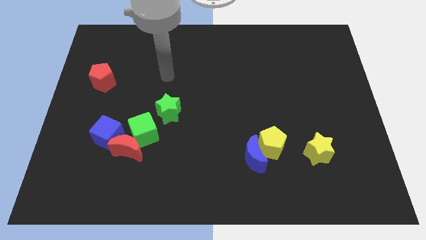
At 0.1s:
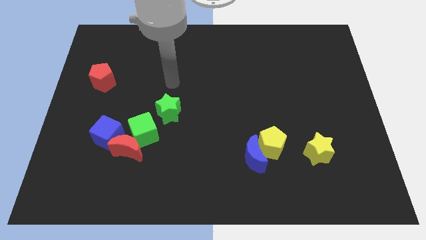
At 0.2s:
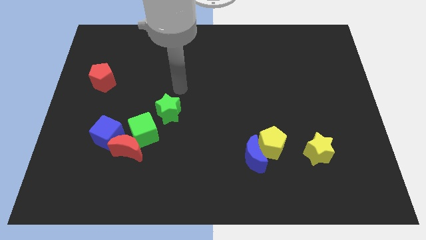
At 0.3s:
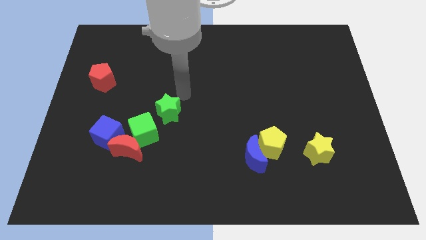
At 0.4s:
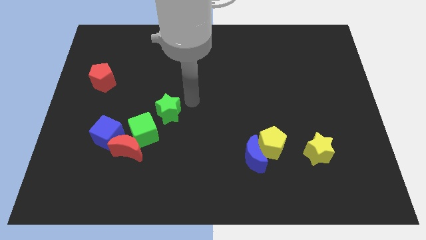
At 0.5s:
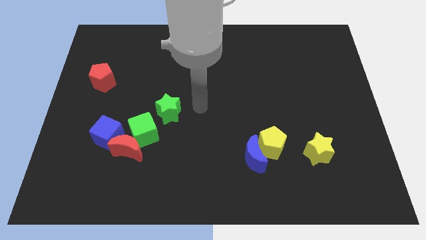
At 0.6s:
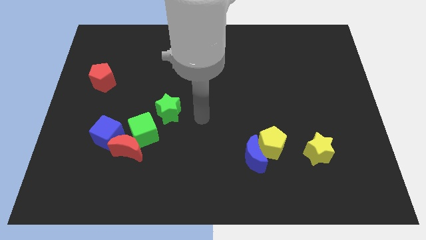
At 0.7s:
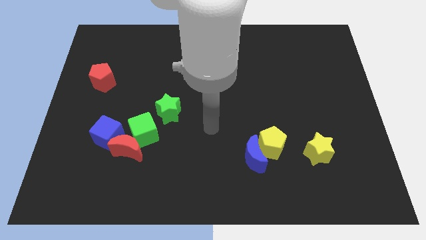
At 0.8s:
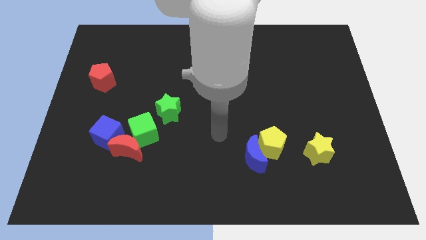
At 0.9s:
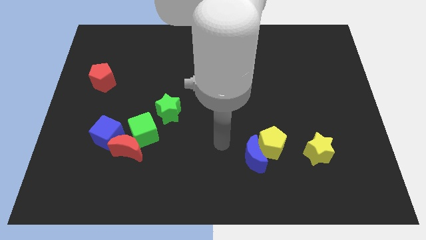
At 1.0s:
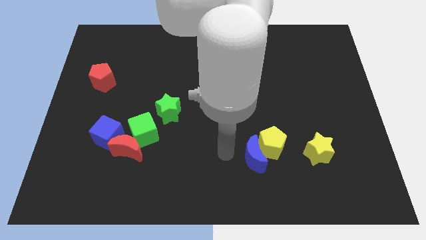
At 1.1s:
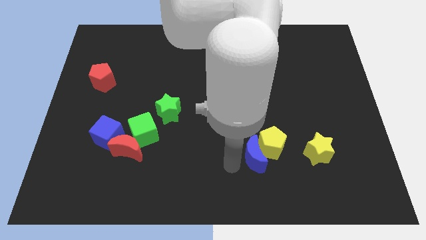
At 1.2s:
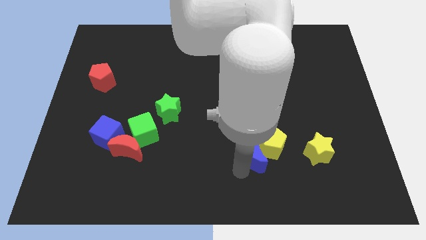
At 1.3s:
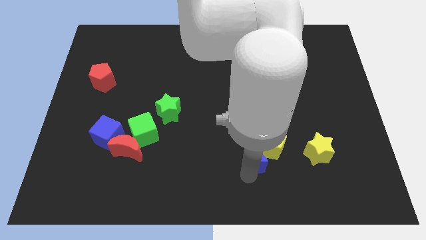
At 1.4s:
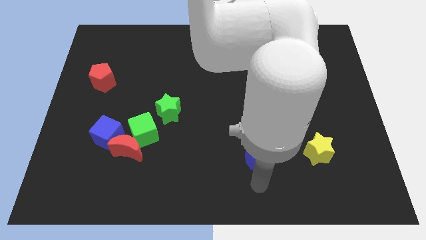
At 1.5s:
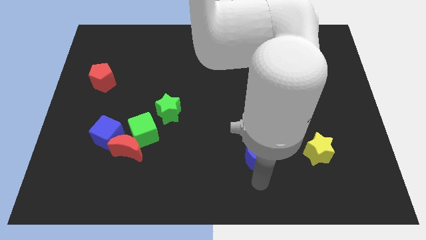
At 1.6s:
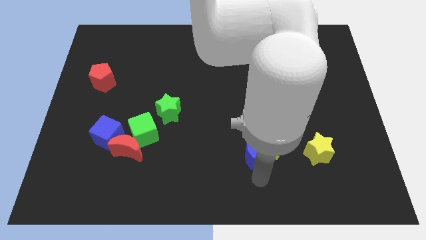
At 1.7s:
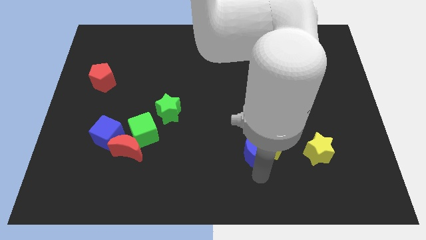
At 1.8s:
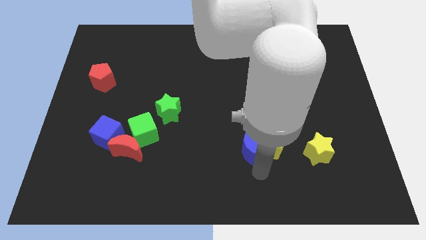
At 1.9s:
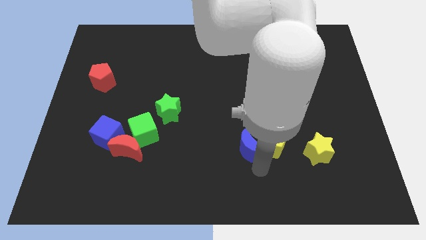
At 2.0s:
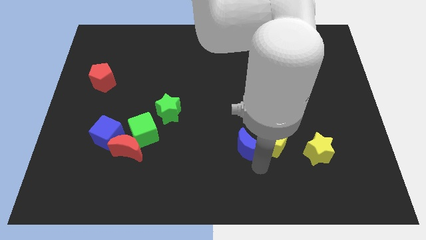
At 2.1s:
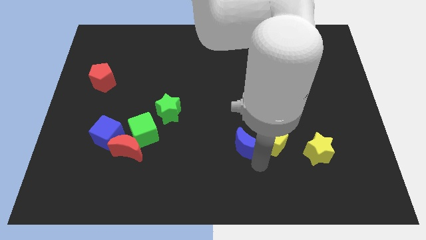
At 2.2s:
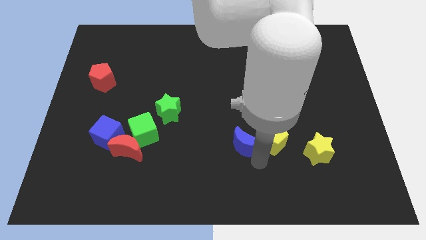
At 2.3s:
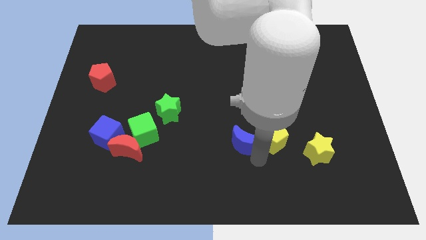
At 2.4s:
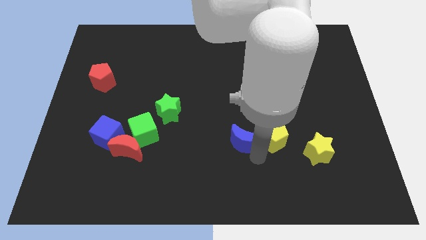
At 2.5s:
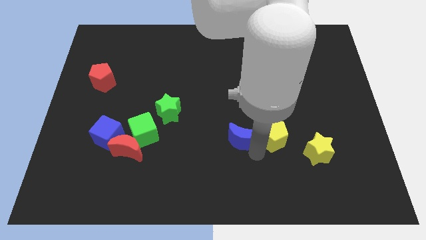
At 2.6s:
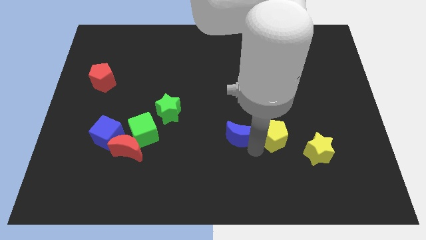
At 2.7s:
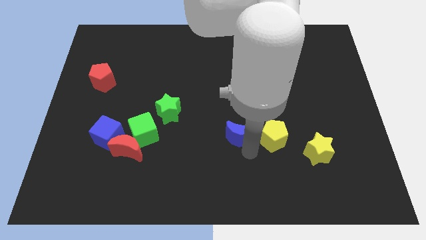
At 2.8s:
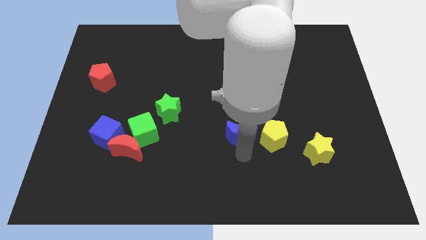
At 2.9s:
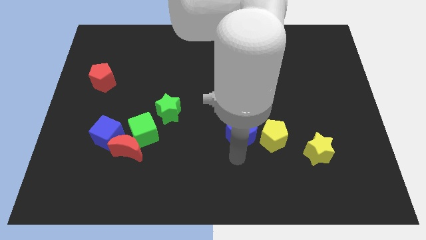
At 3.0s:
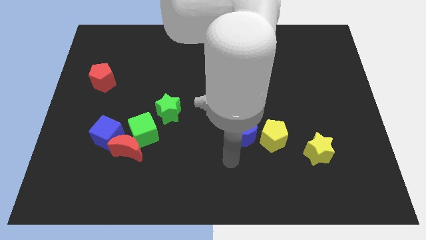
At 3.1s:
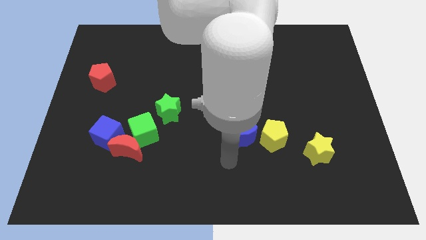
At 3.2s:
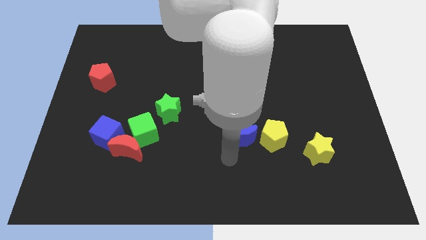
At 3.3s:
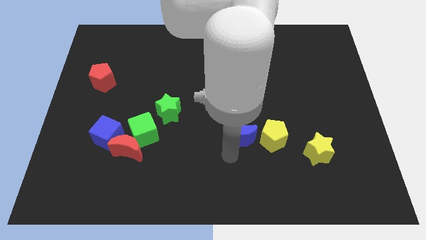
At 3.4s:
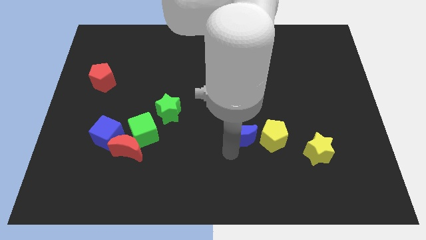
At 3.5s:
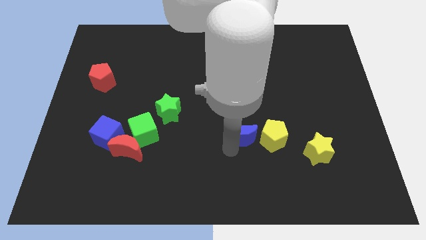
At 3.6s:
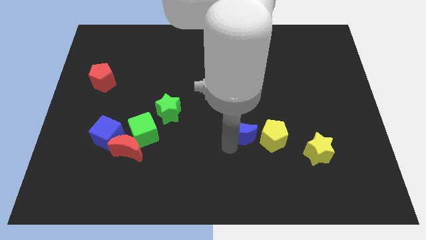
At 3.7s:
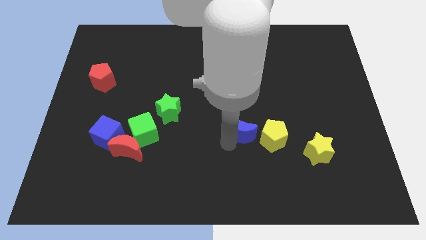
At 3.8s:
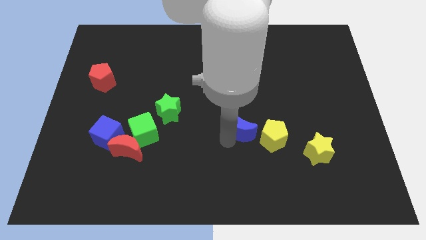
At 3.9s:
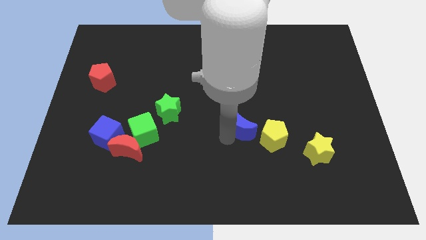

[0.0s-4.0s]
slightly push the blue moon up

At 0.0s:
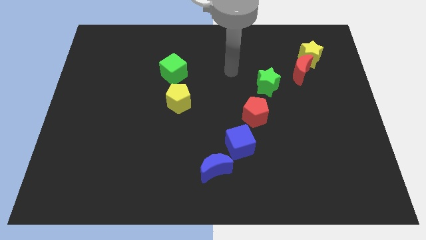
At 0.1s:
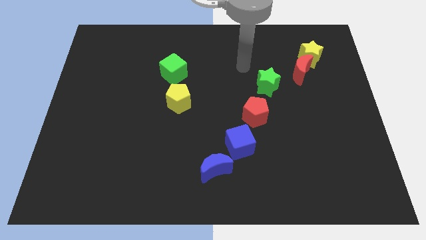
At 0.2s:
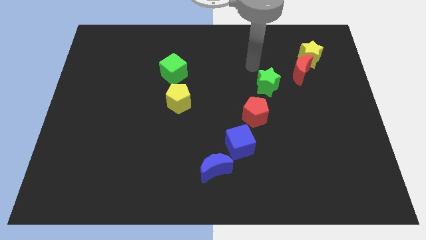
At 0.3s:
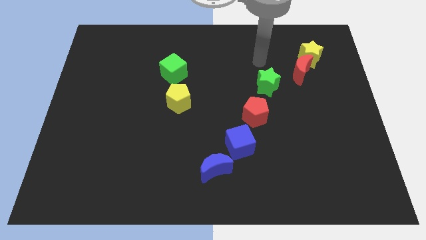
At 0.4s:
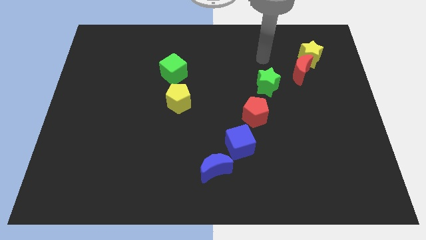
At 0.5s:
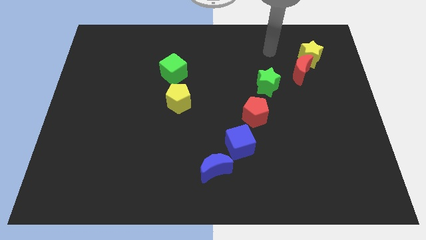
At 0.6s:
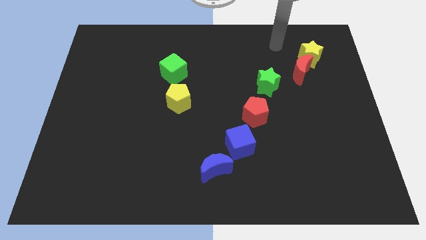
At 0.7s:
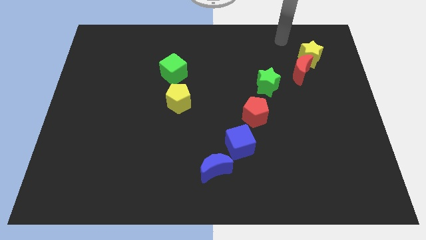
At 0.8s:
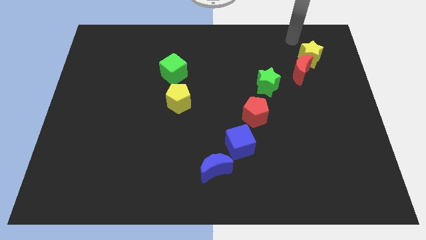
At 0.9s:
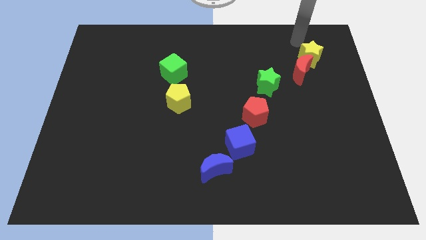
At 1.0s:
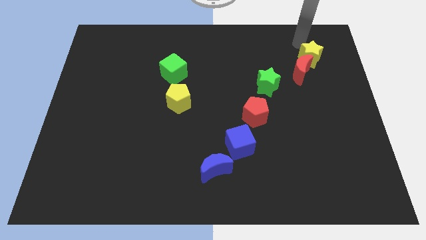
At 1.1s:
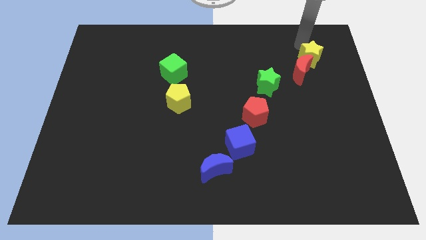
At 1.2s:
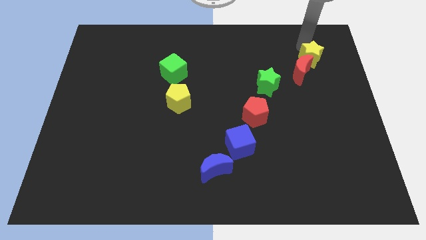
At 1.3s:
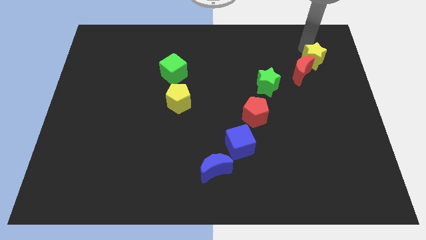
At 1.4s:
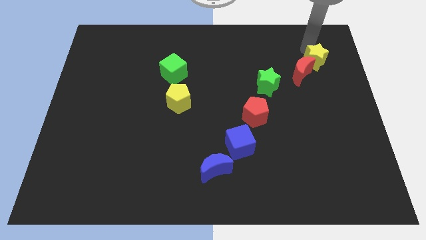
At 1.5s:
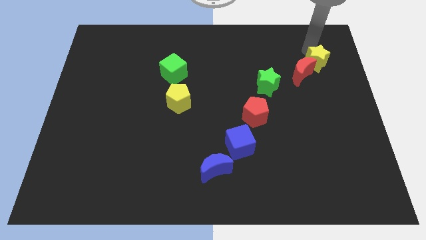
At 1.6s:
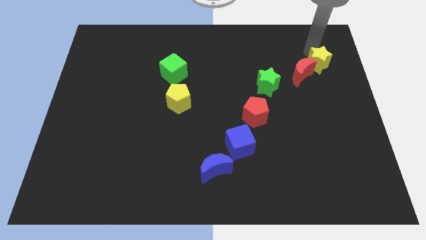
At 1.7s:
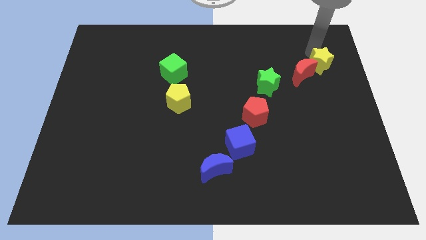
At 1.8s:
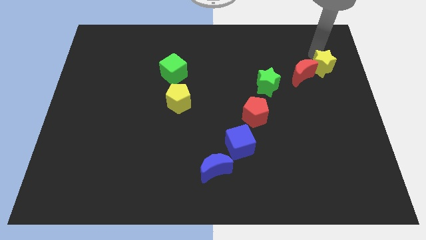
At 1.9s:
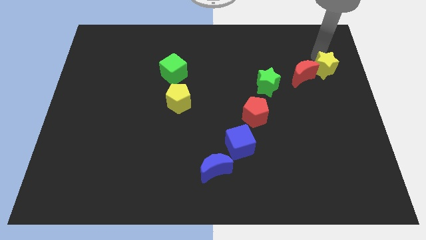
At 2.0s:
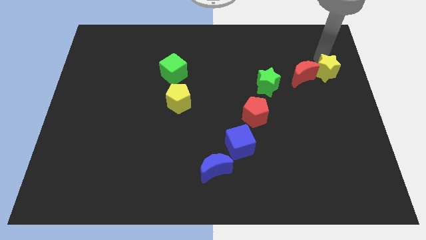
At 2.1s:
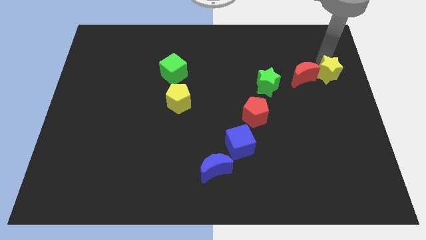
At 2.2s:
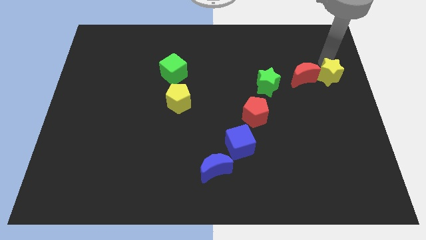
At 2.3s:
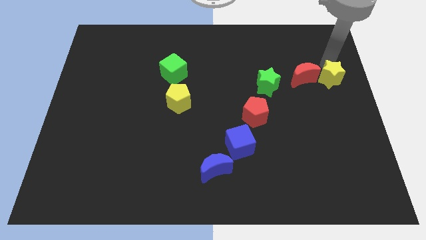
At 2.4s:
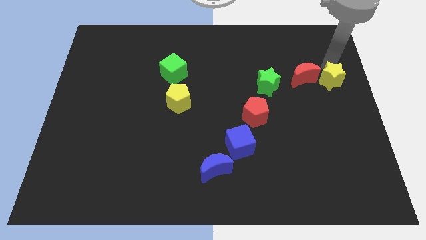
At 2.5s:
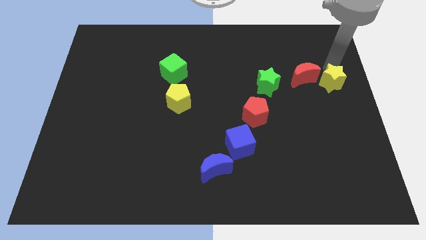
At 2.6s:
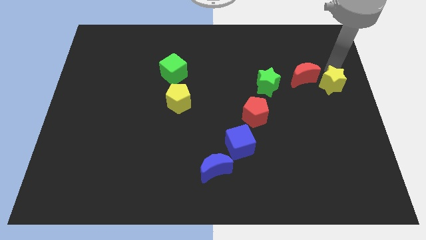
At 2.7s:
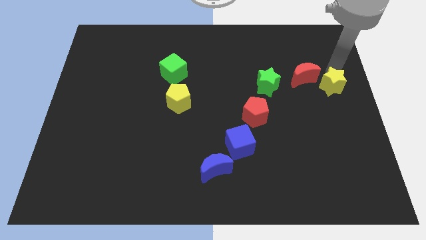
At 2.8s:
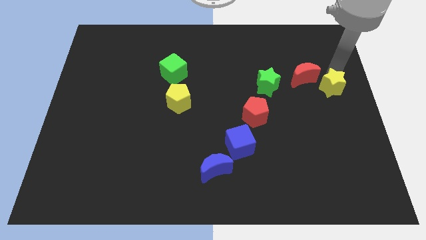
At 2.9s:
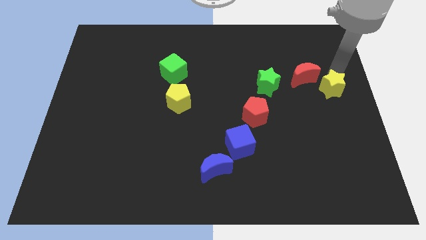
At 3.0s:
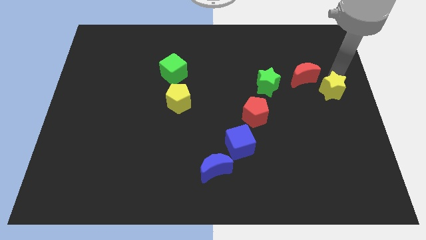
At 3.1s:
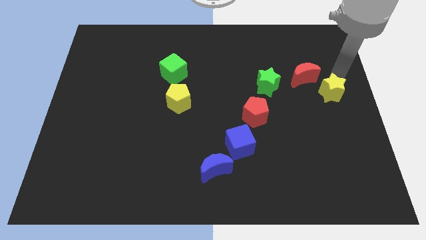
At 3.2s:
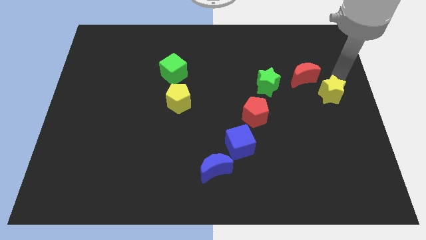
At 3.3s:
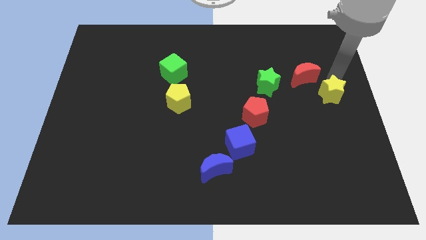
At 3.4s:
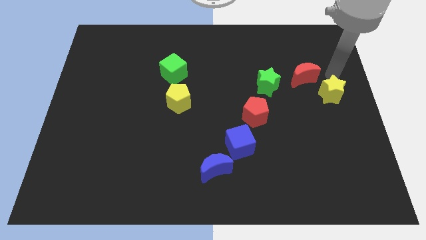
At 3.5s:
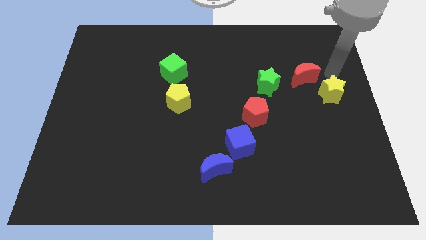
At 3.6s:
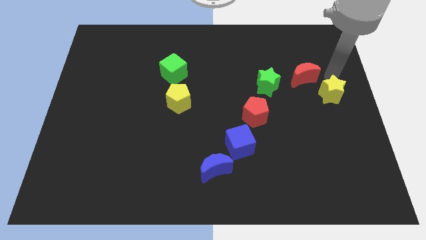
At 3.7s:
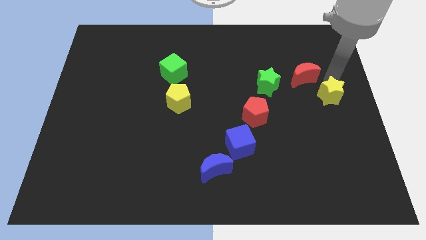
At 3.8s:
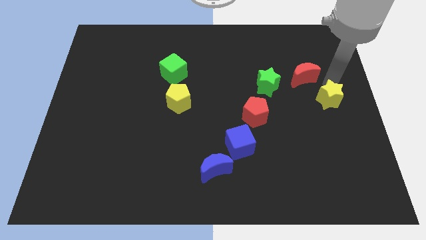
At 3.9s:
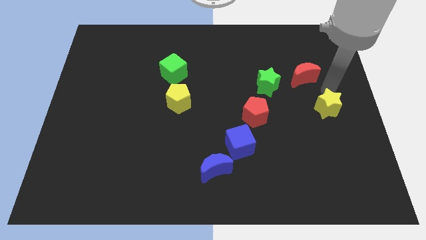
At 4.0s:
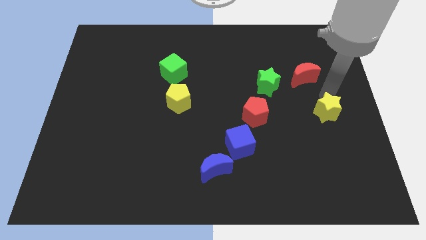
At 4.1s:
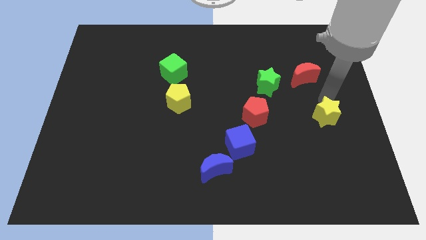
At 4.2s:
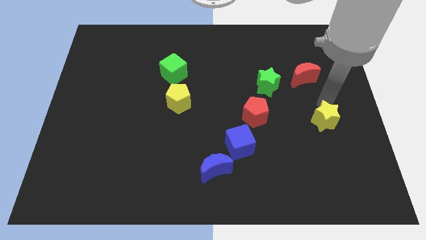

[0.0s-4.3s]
slide the yellow star downwards
